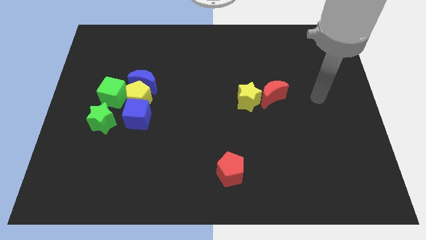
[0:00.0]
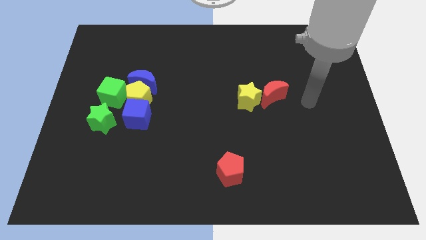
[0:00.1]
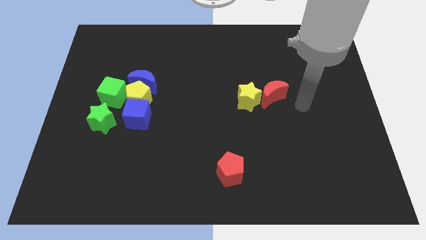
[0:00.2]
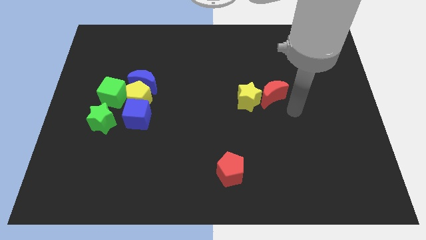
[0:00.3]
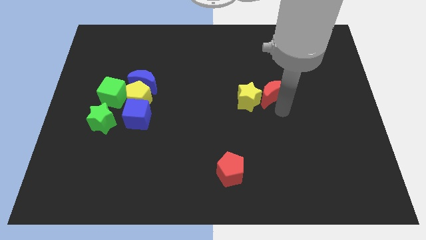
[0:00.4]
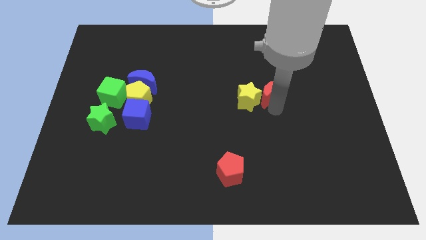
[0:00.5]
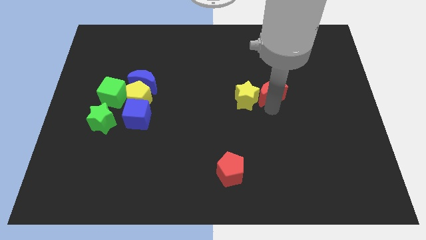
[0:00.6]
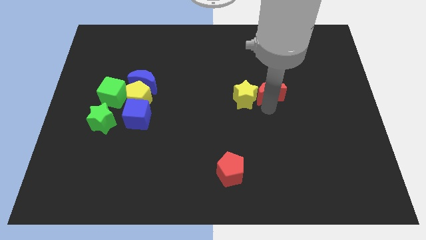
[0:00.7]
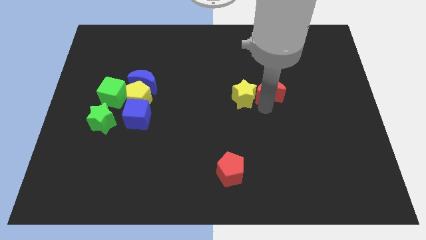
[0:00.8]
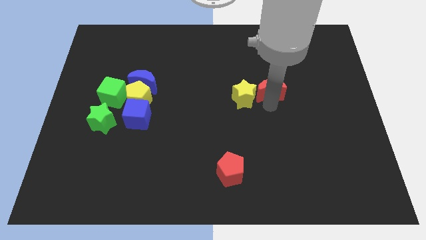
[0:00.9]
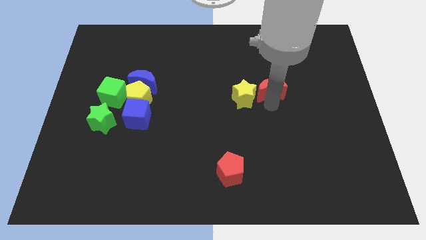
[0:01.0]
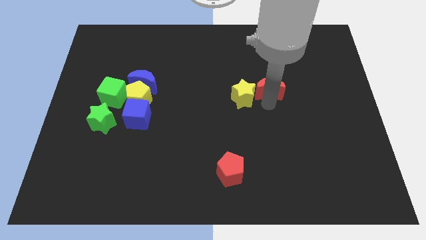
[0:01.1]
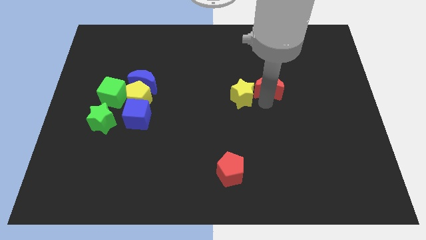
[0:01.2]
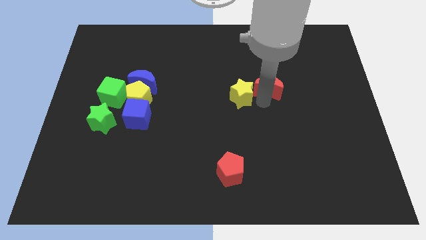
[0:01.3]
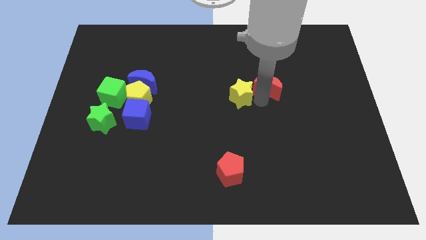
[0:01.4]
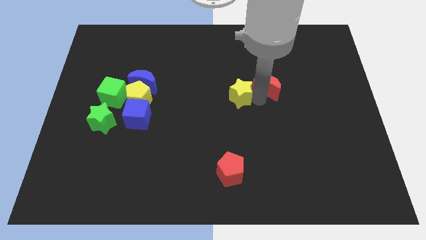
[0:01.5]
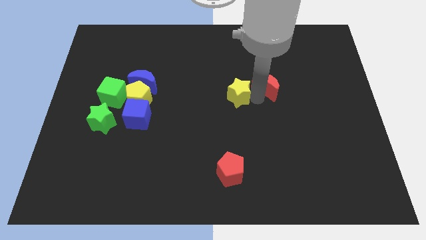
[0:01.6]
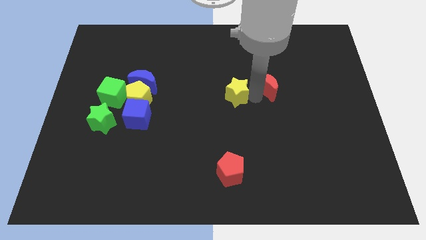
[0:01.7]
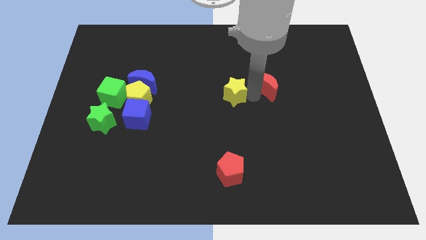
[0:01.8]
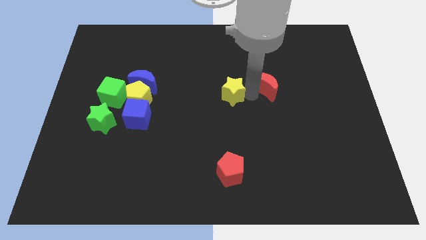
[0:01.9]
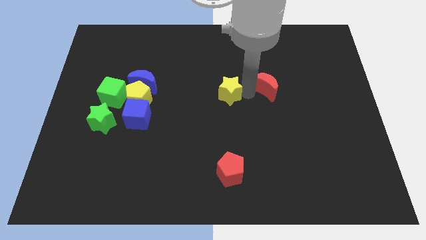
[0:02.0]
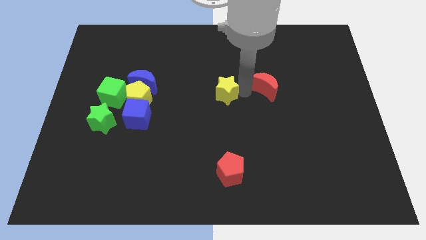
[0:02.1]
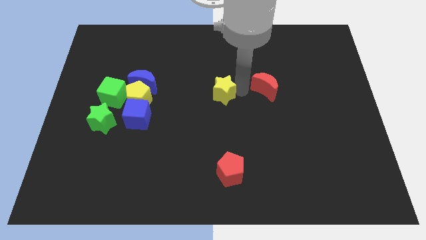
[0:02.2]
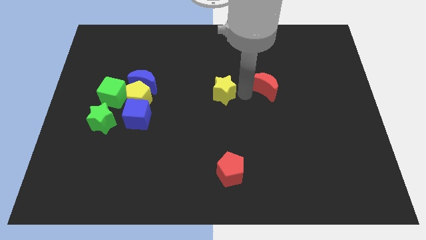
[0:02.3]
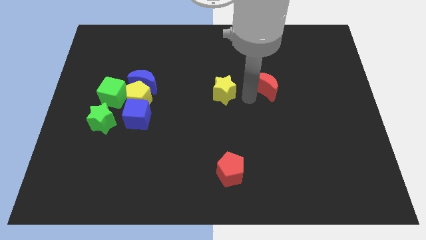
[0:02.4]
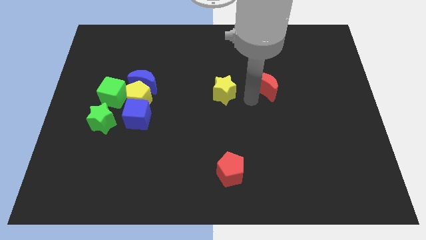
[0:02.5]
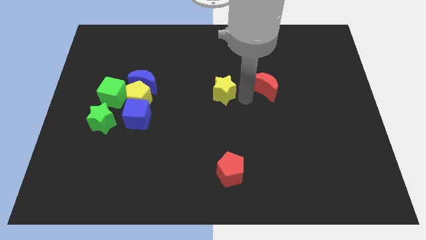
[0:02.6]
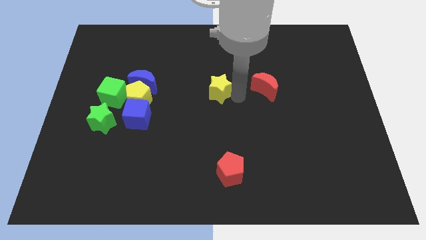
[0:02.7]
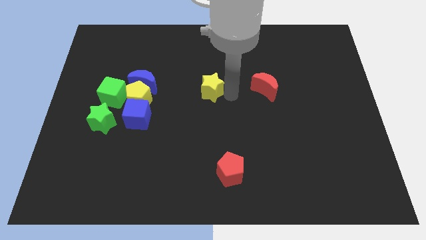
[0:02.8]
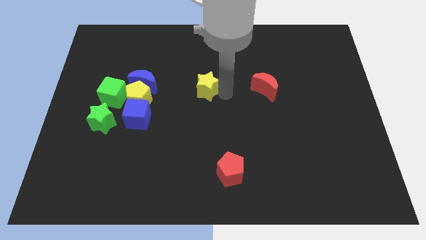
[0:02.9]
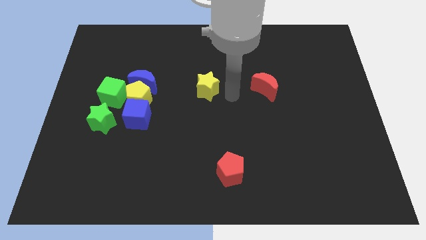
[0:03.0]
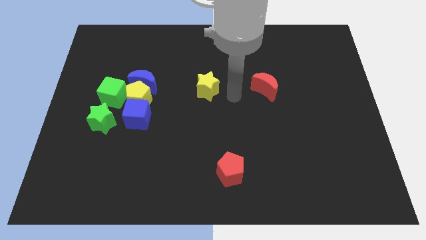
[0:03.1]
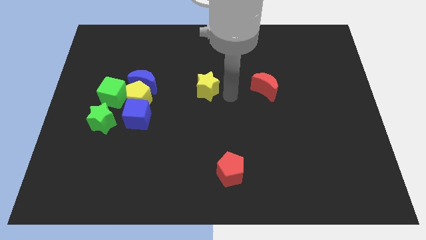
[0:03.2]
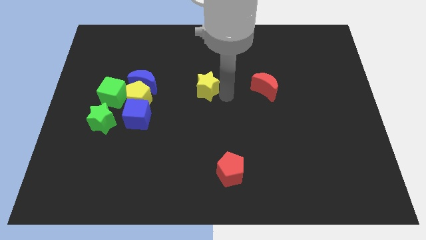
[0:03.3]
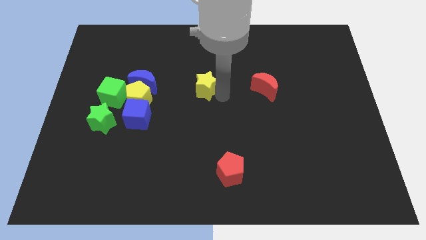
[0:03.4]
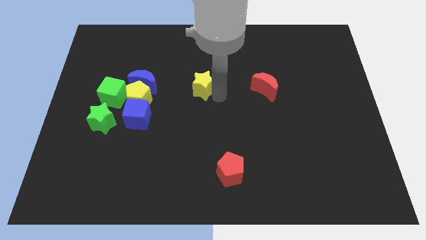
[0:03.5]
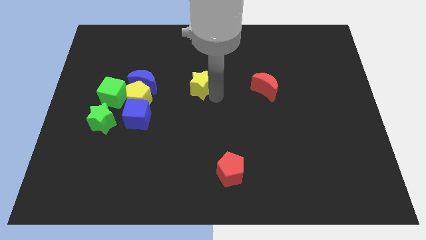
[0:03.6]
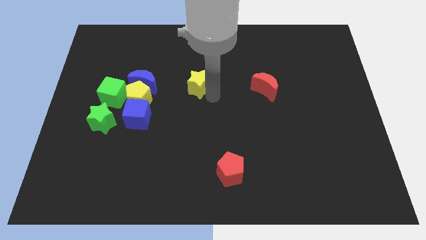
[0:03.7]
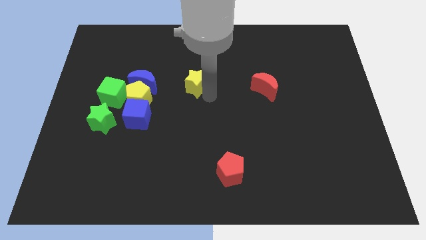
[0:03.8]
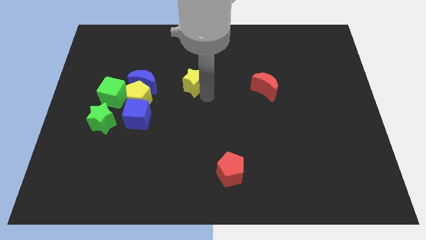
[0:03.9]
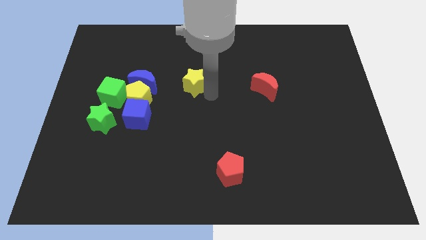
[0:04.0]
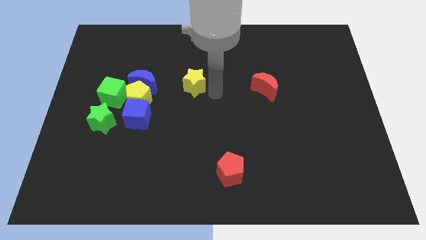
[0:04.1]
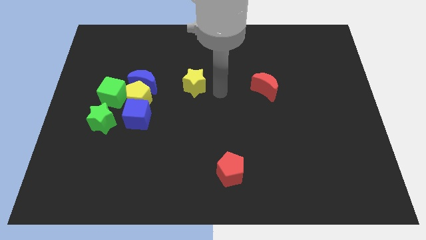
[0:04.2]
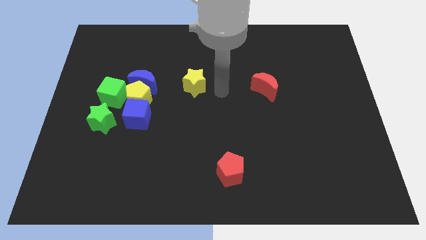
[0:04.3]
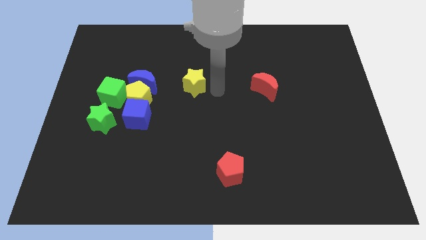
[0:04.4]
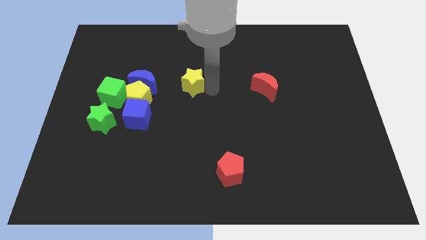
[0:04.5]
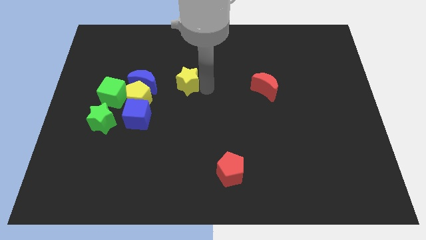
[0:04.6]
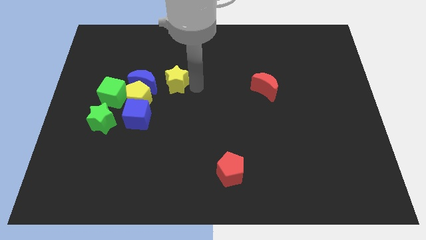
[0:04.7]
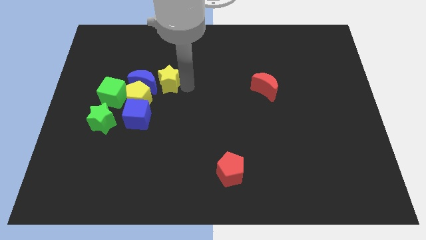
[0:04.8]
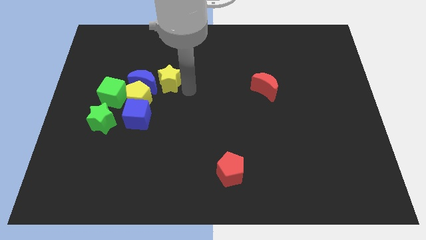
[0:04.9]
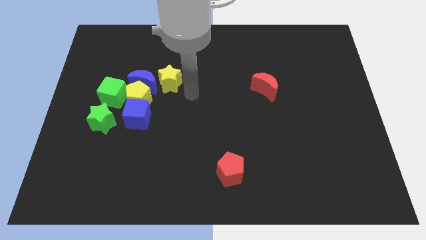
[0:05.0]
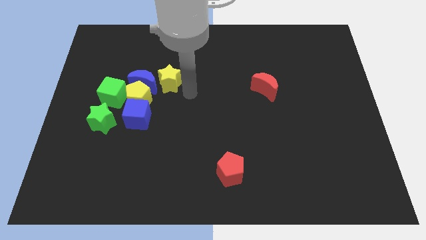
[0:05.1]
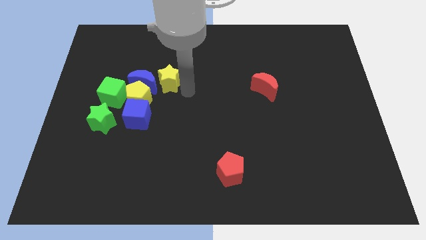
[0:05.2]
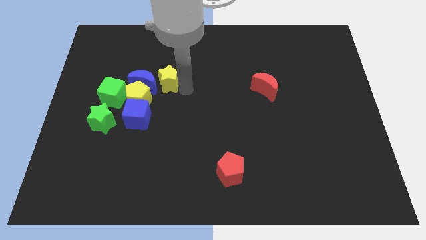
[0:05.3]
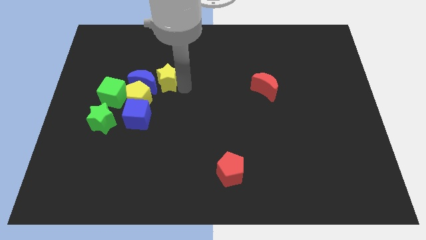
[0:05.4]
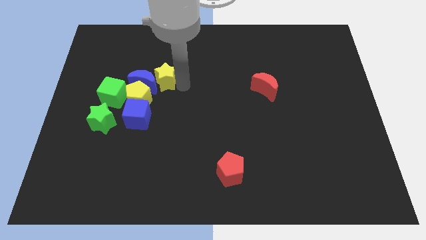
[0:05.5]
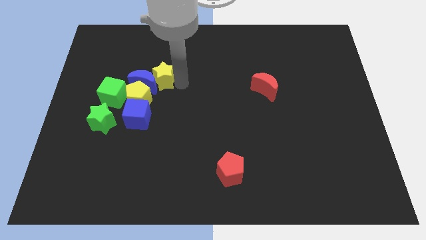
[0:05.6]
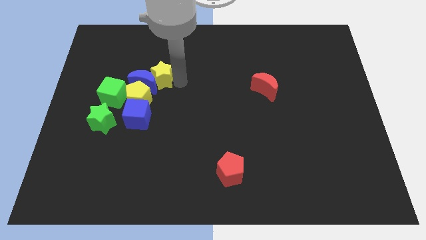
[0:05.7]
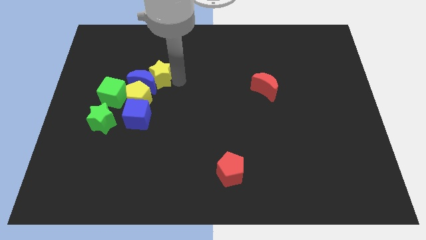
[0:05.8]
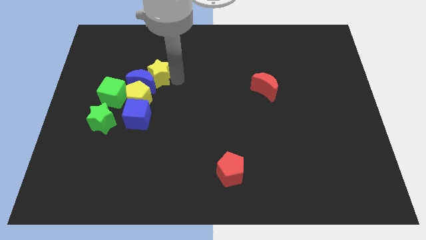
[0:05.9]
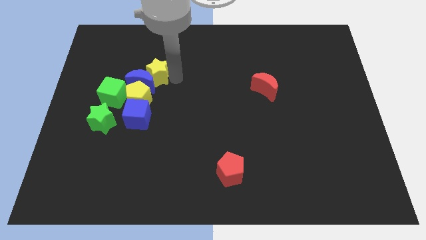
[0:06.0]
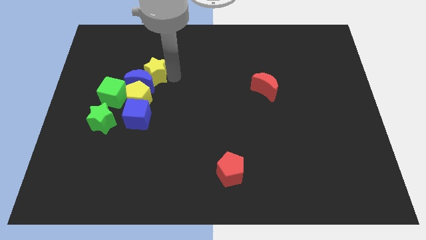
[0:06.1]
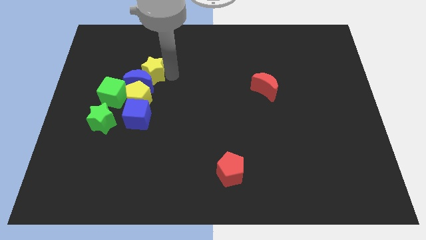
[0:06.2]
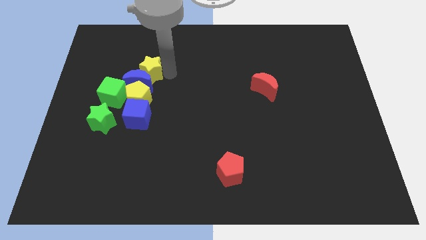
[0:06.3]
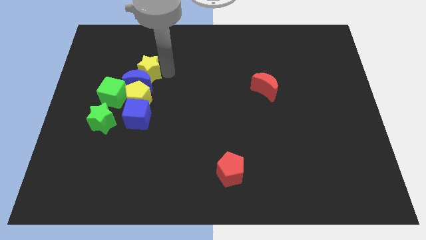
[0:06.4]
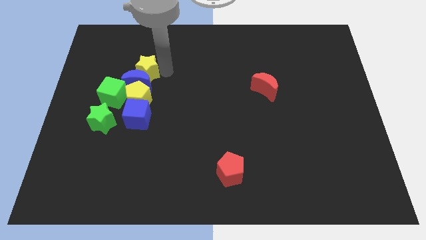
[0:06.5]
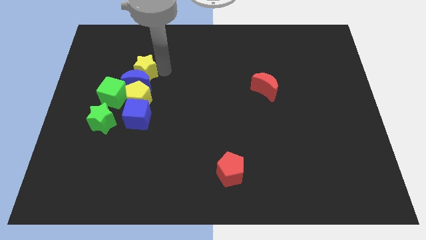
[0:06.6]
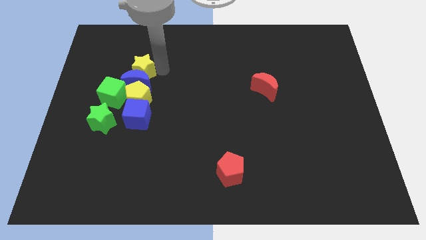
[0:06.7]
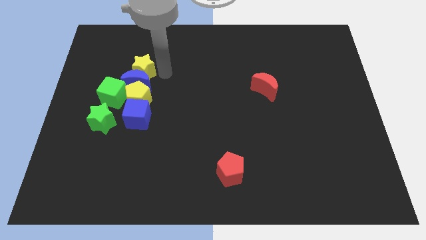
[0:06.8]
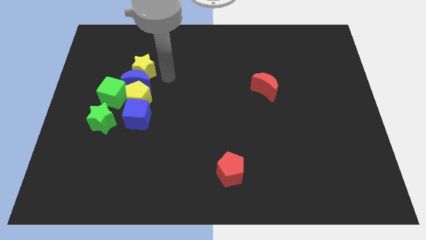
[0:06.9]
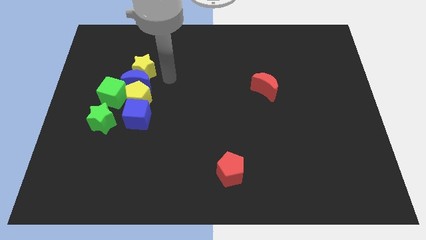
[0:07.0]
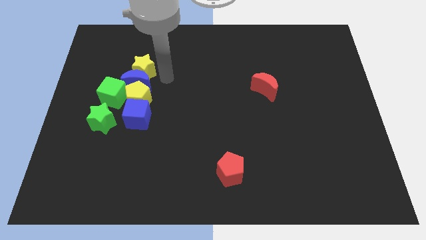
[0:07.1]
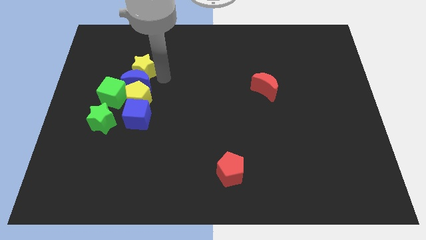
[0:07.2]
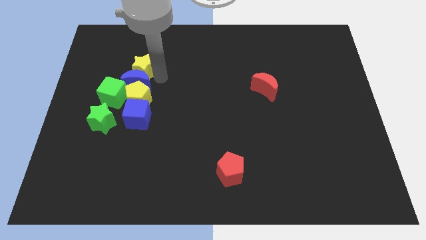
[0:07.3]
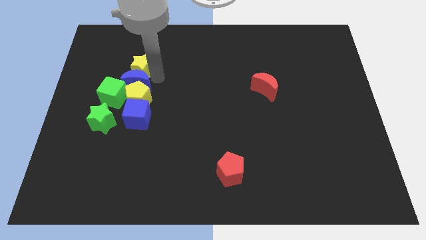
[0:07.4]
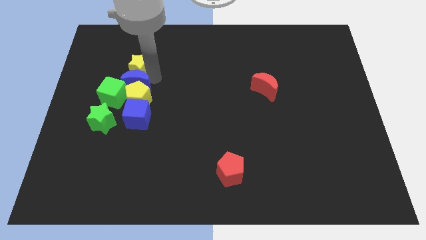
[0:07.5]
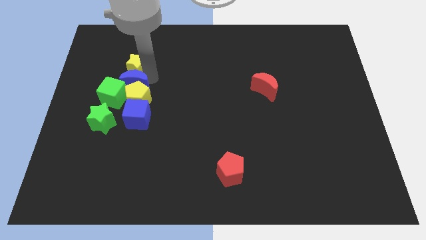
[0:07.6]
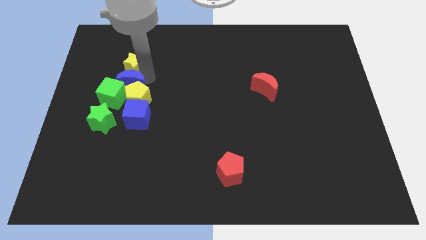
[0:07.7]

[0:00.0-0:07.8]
move the yellow star above the green cube

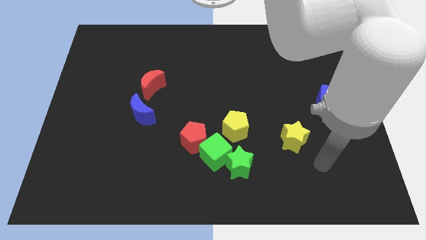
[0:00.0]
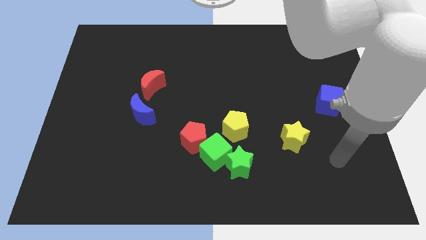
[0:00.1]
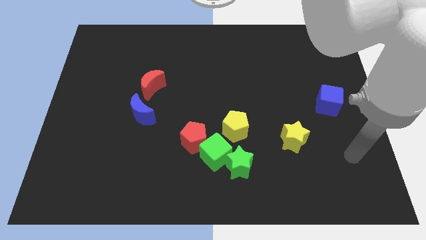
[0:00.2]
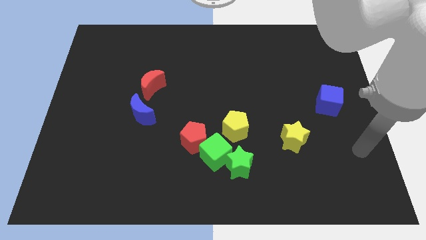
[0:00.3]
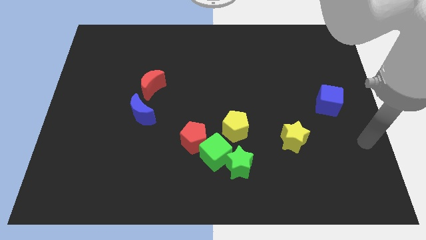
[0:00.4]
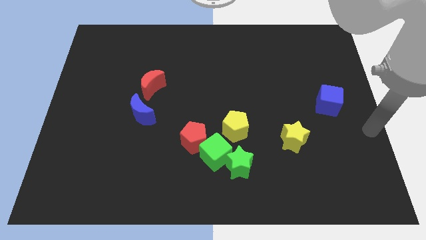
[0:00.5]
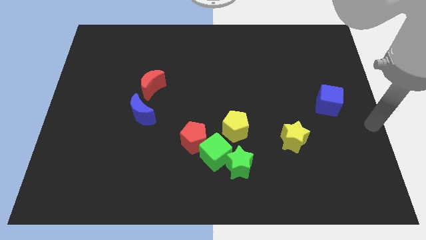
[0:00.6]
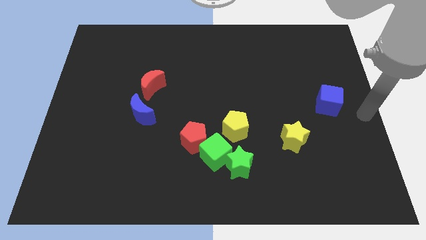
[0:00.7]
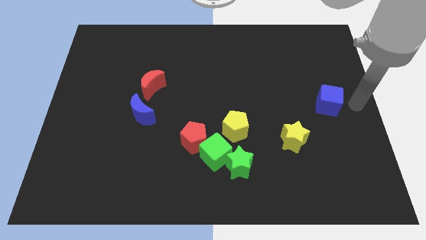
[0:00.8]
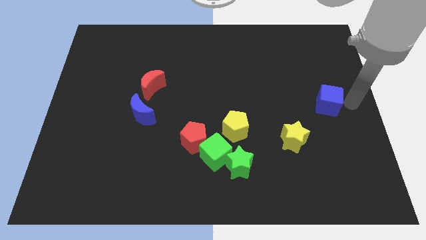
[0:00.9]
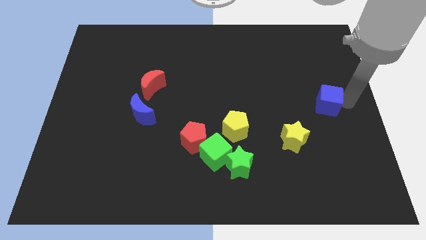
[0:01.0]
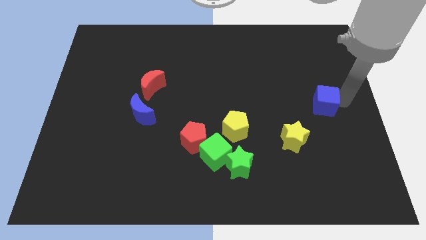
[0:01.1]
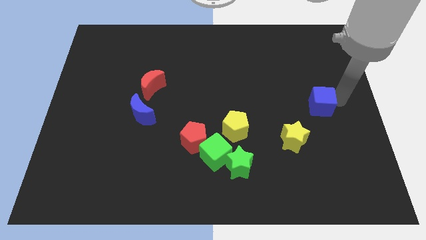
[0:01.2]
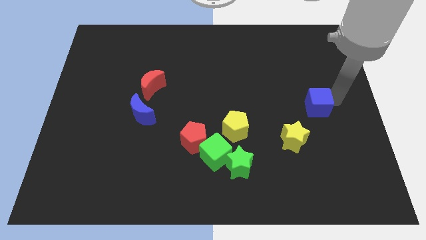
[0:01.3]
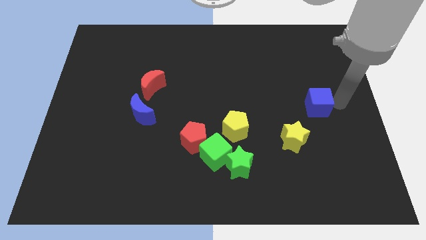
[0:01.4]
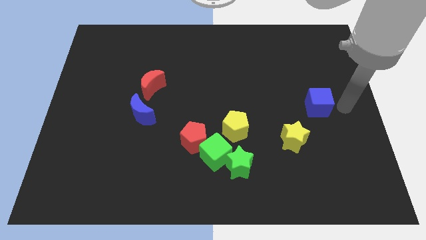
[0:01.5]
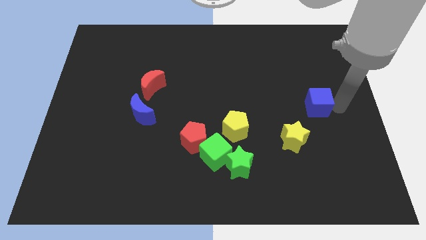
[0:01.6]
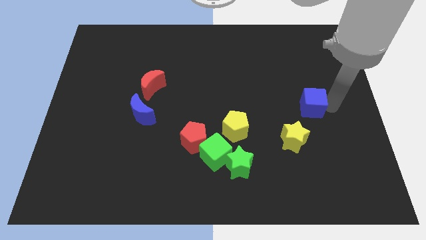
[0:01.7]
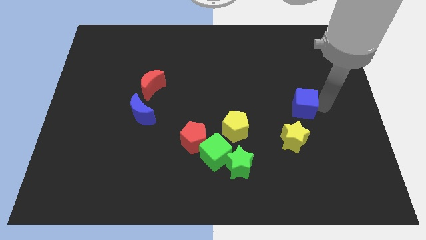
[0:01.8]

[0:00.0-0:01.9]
slide the blue cube to the top side of the yellow star
